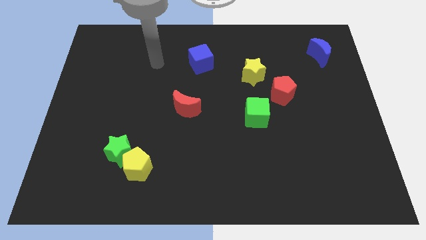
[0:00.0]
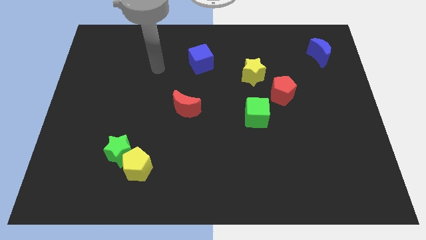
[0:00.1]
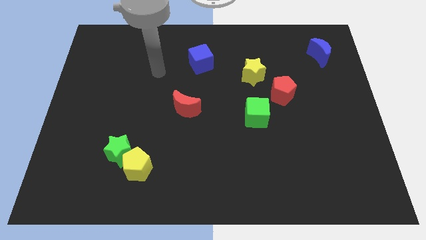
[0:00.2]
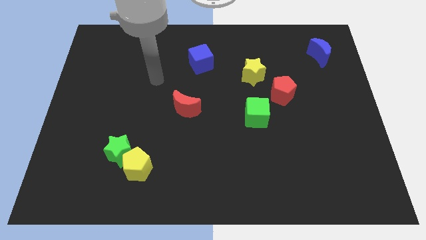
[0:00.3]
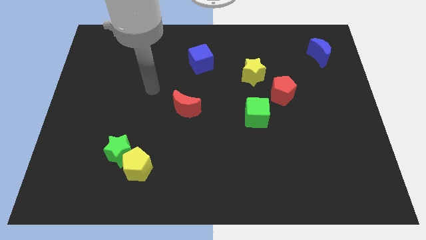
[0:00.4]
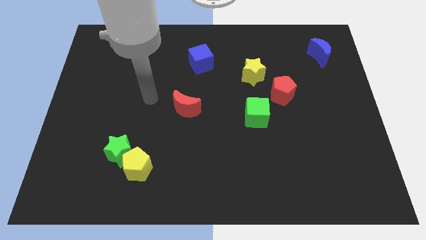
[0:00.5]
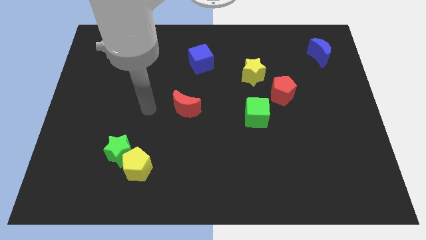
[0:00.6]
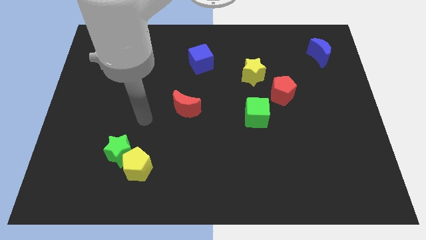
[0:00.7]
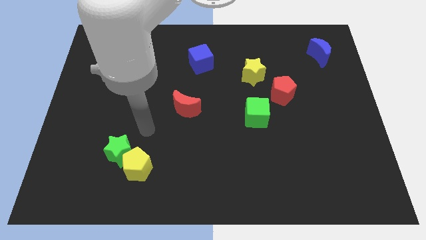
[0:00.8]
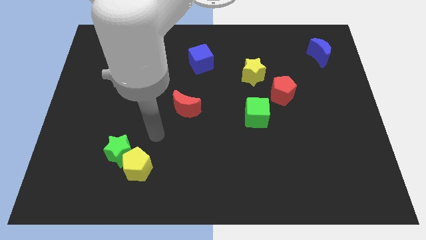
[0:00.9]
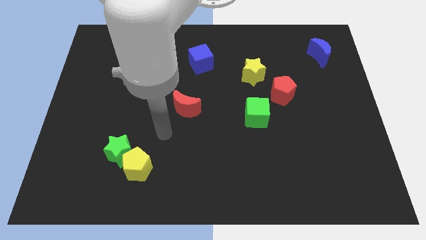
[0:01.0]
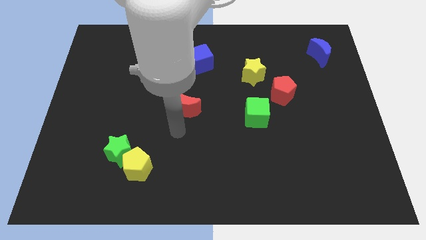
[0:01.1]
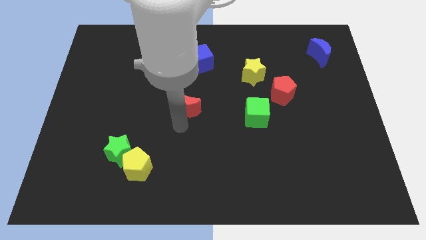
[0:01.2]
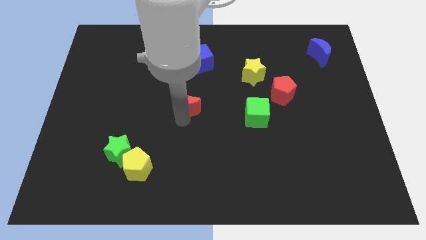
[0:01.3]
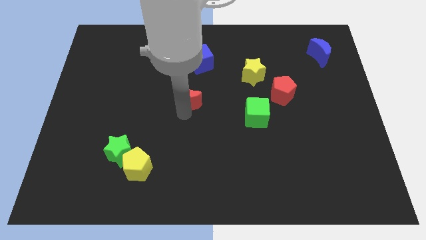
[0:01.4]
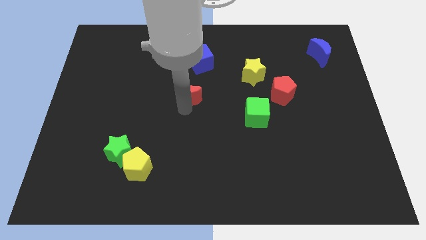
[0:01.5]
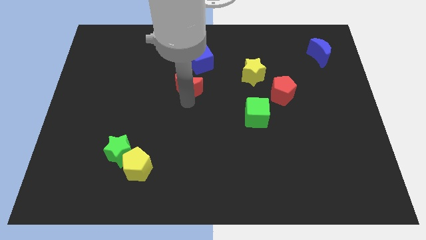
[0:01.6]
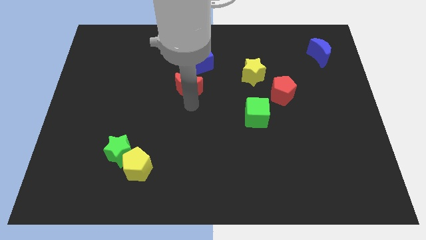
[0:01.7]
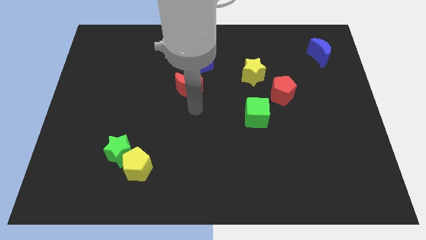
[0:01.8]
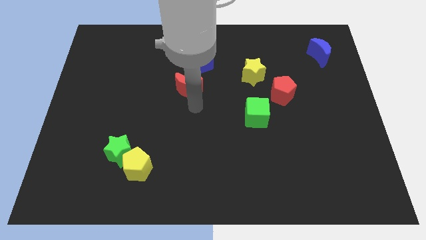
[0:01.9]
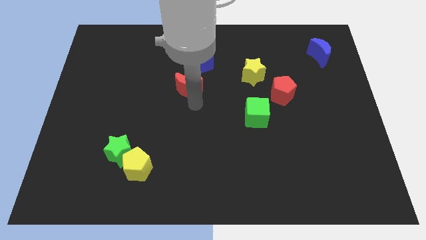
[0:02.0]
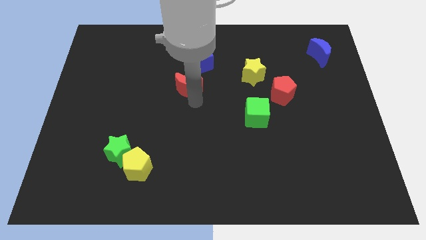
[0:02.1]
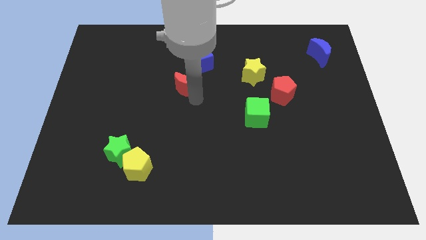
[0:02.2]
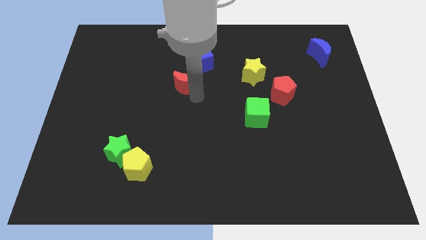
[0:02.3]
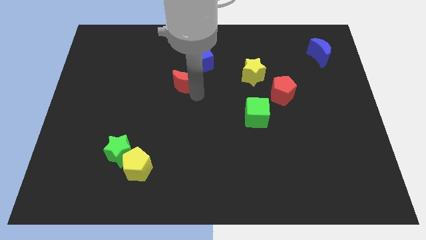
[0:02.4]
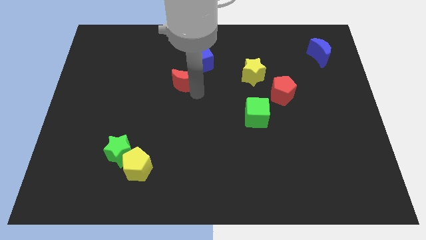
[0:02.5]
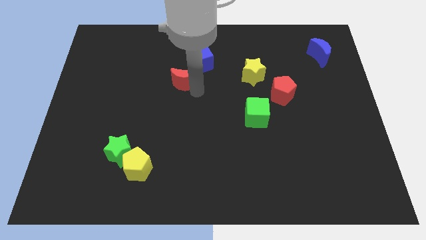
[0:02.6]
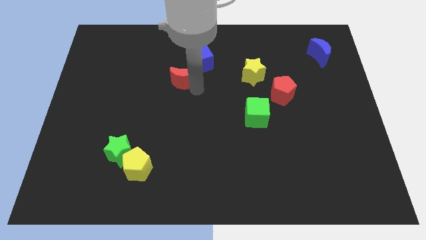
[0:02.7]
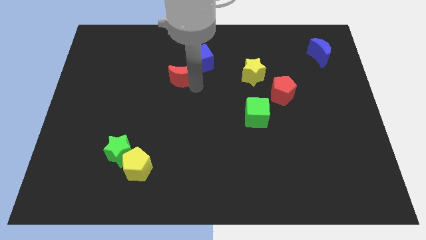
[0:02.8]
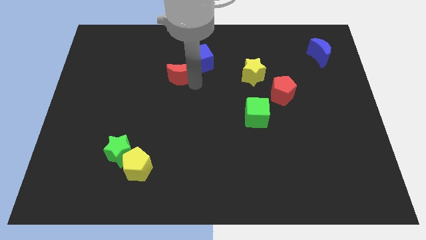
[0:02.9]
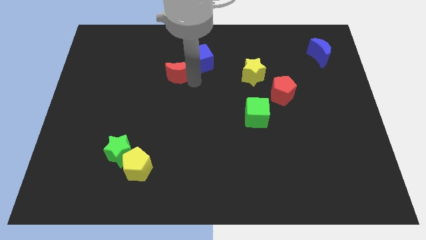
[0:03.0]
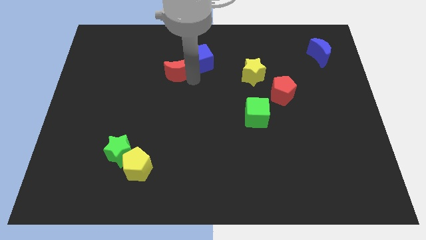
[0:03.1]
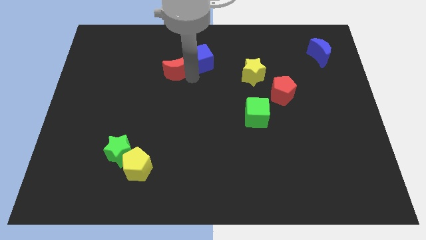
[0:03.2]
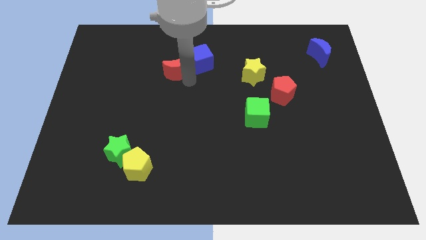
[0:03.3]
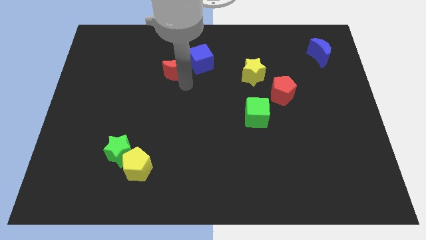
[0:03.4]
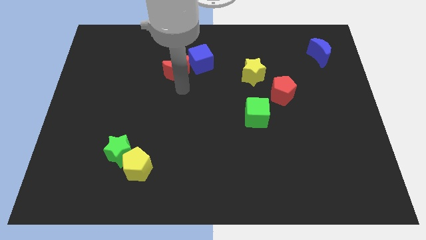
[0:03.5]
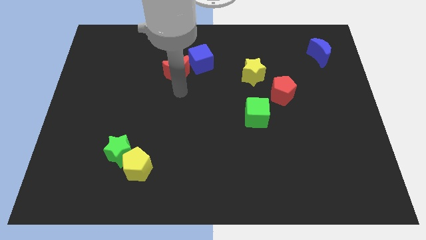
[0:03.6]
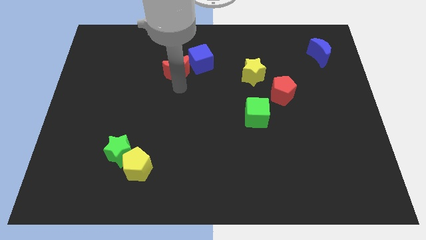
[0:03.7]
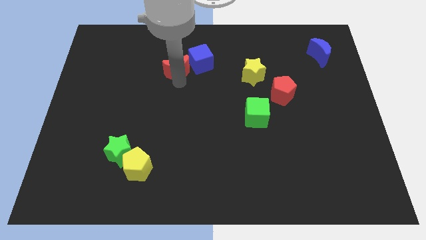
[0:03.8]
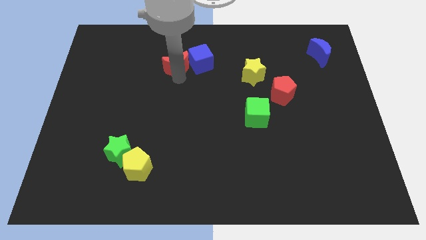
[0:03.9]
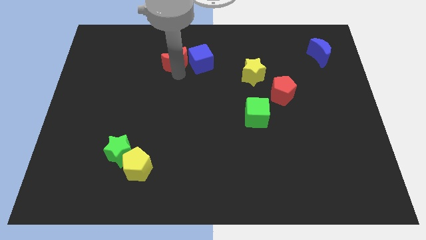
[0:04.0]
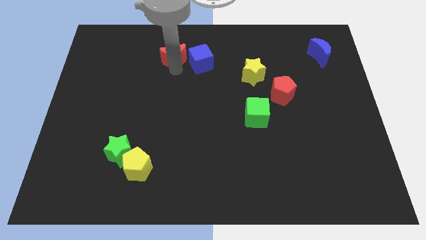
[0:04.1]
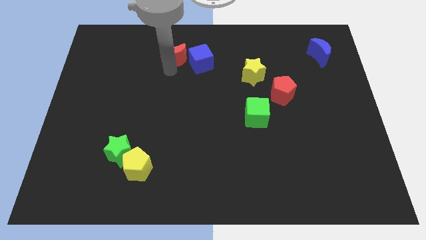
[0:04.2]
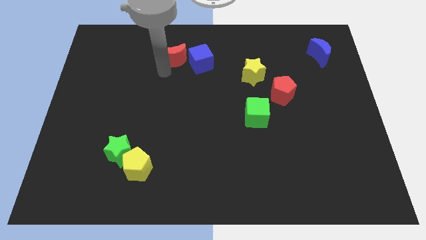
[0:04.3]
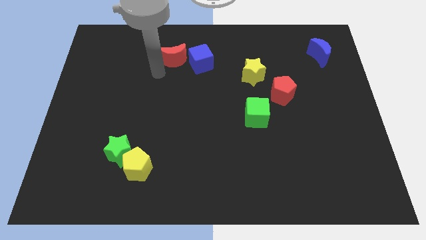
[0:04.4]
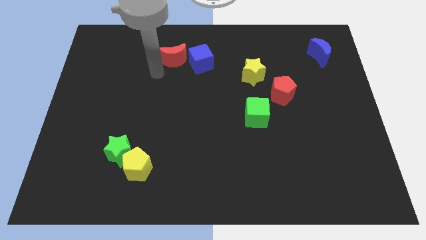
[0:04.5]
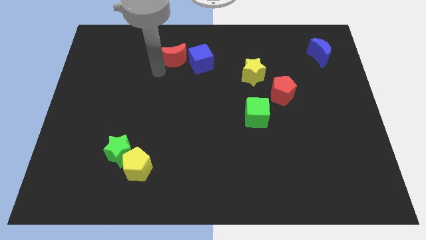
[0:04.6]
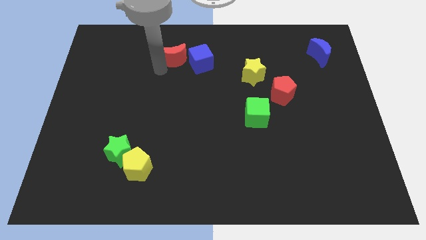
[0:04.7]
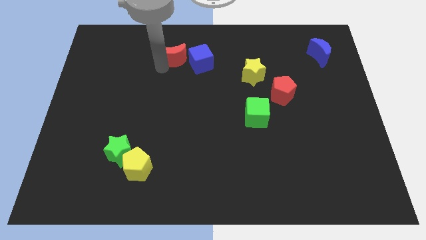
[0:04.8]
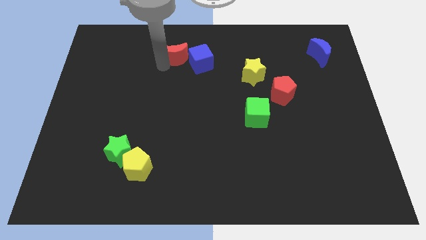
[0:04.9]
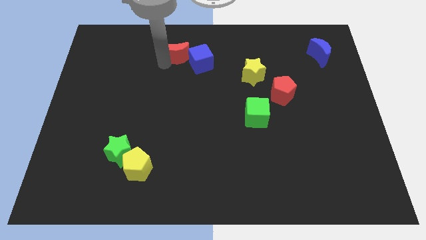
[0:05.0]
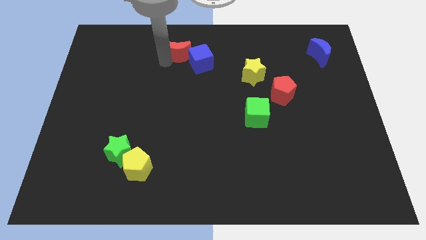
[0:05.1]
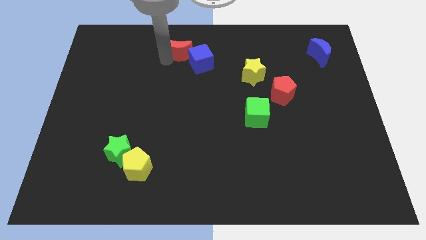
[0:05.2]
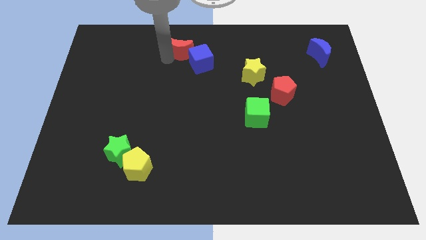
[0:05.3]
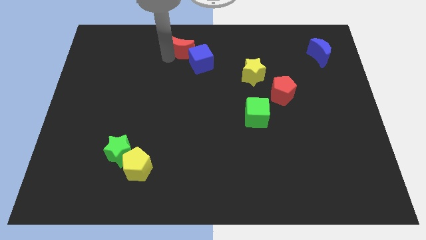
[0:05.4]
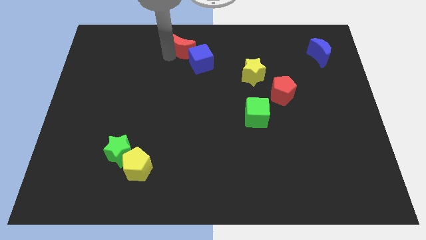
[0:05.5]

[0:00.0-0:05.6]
slide the red moon to the top
